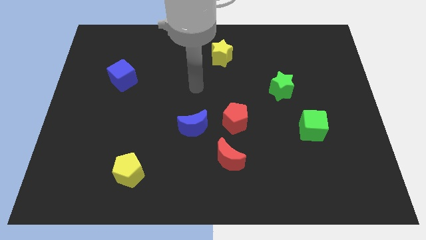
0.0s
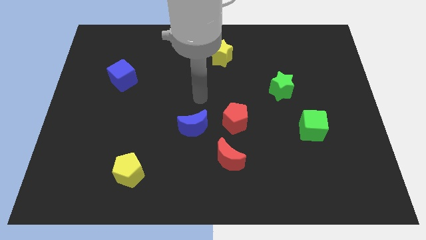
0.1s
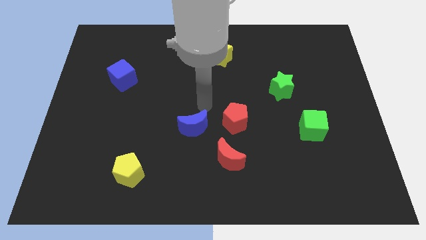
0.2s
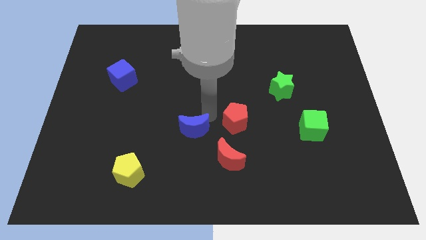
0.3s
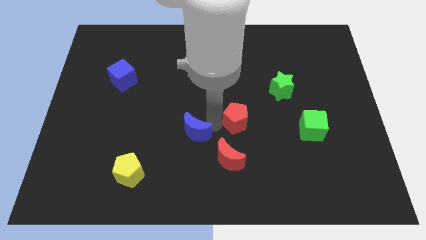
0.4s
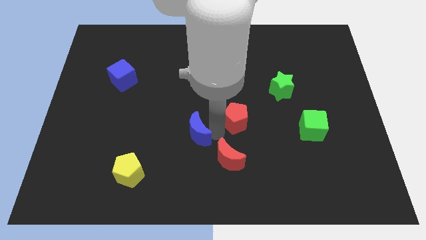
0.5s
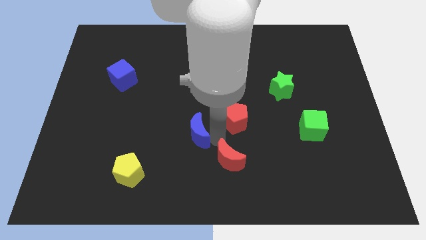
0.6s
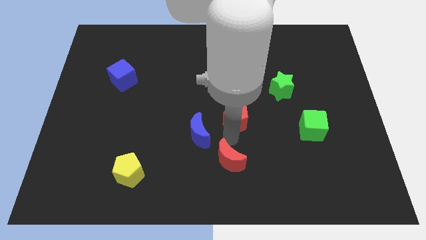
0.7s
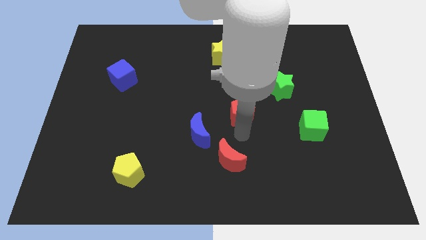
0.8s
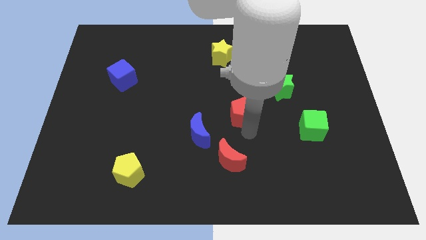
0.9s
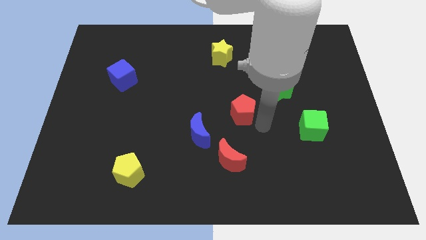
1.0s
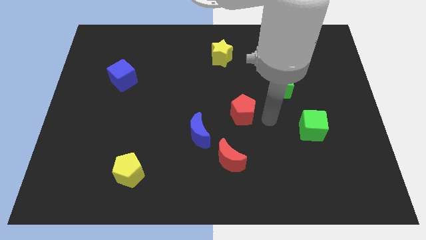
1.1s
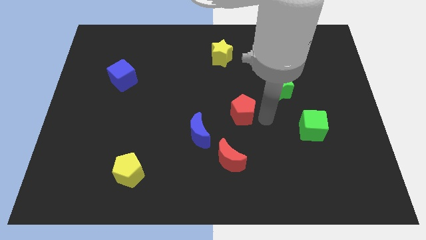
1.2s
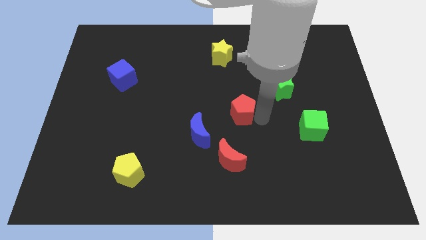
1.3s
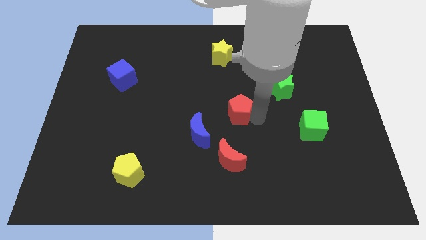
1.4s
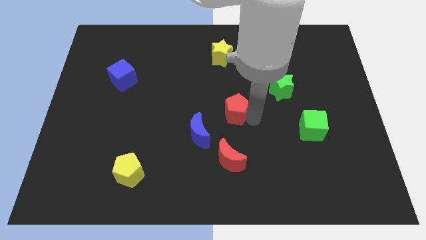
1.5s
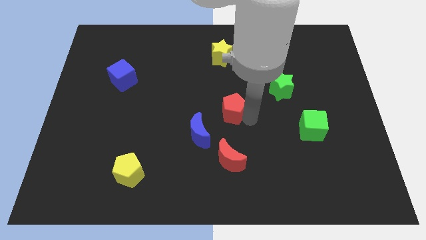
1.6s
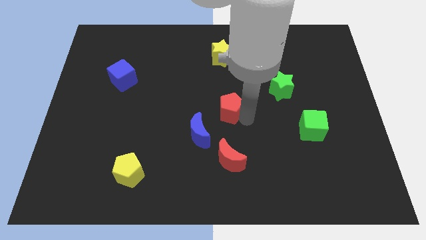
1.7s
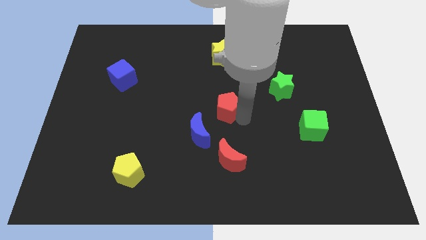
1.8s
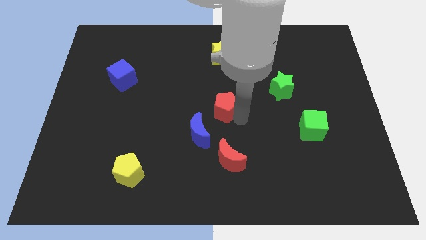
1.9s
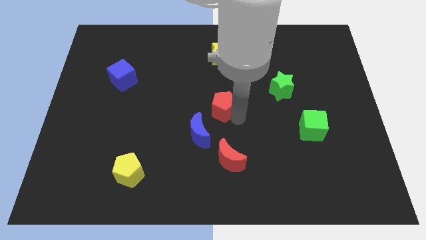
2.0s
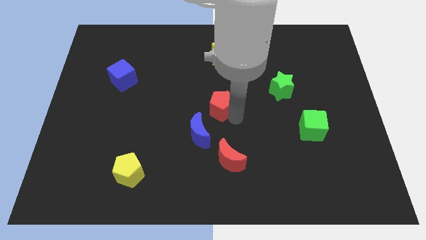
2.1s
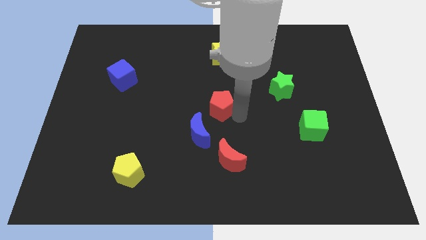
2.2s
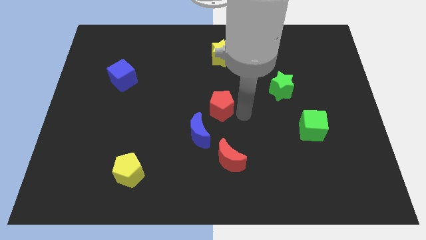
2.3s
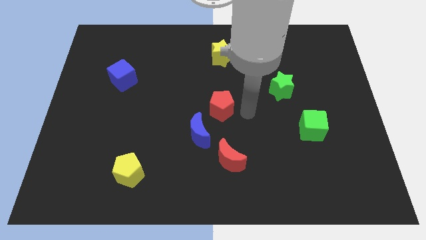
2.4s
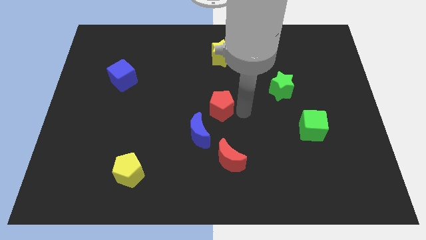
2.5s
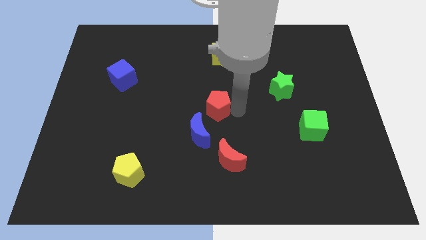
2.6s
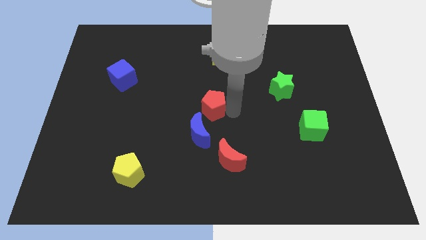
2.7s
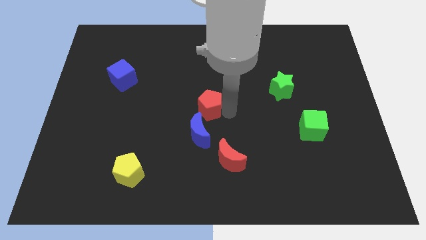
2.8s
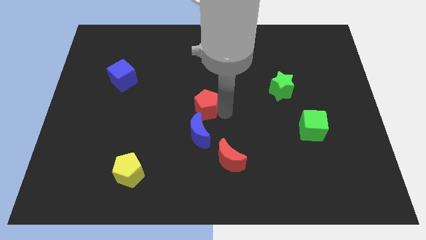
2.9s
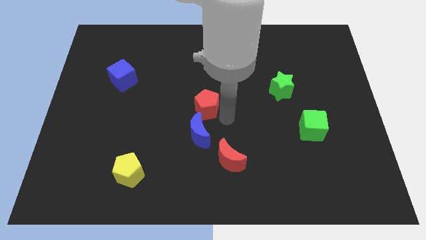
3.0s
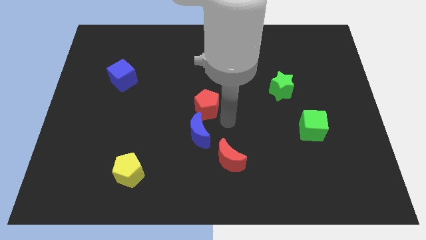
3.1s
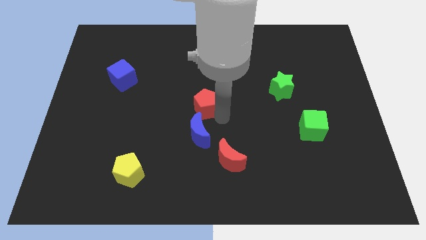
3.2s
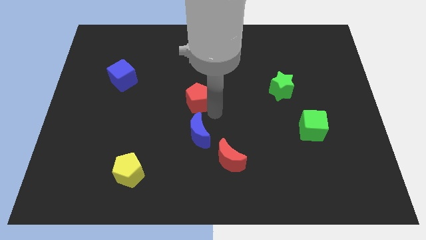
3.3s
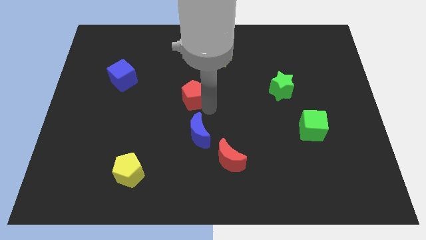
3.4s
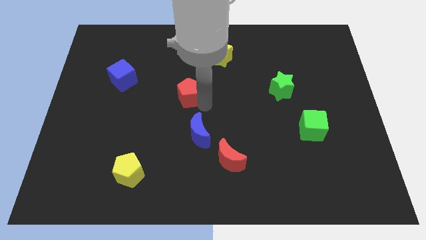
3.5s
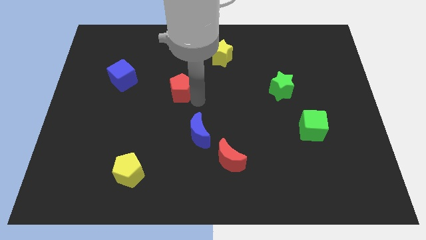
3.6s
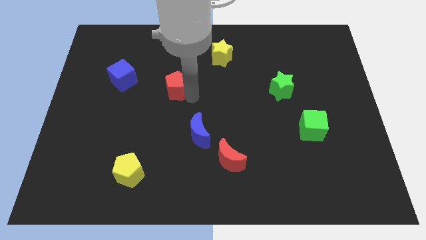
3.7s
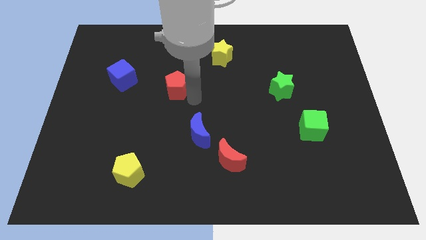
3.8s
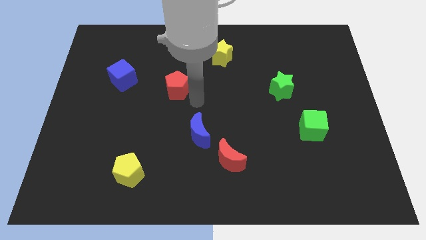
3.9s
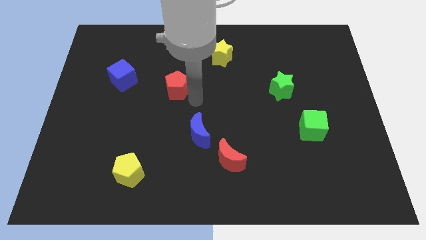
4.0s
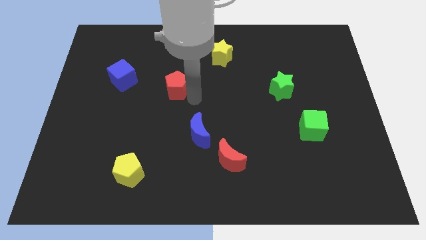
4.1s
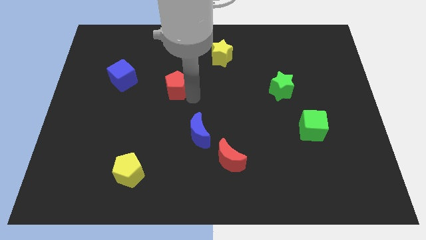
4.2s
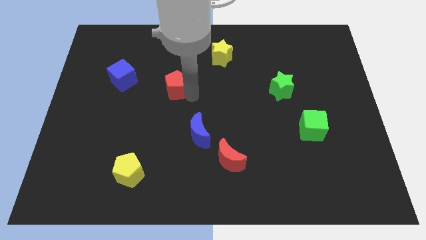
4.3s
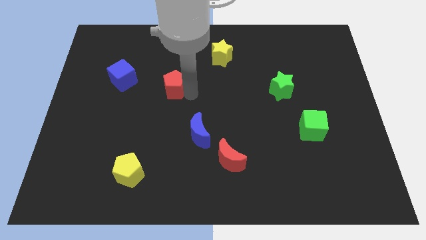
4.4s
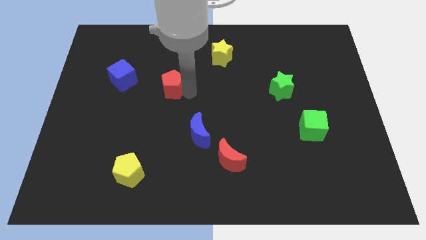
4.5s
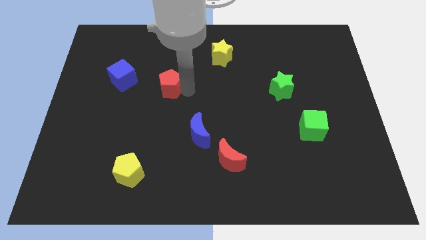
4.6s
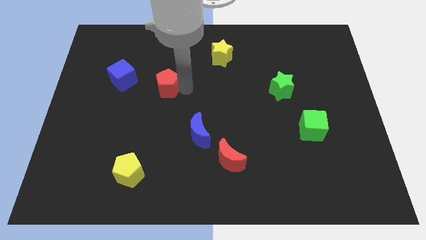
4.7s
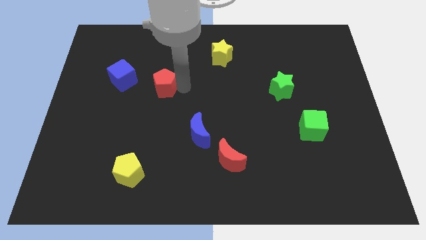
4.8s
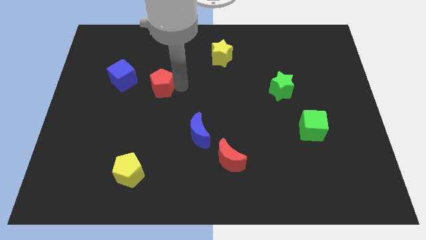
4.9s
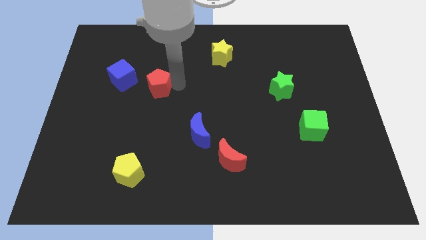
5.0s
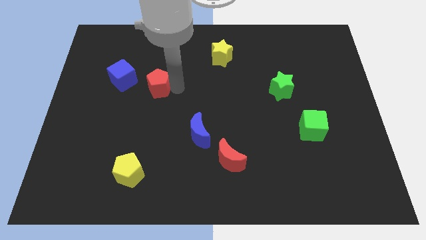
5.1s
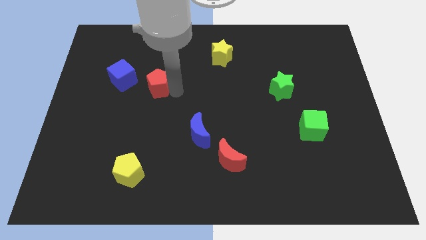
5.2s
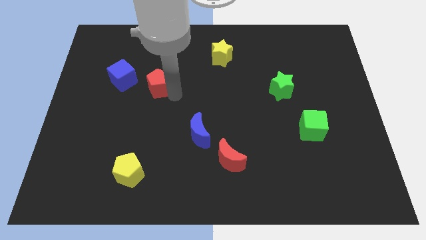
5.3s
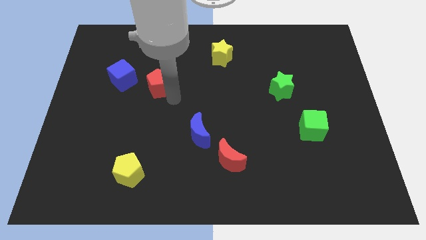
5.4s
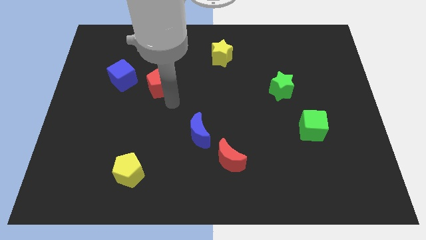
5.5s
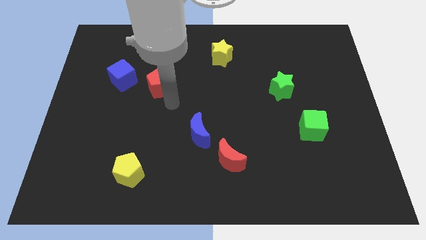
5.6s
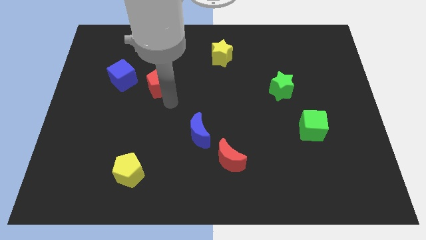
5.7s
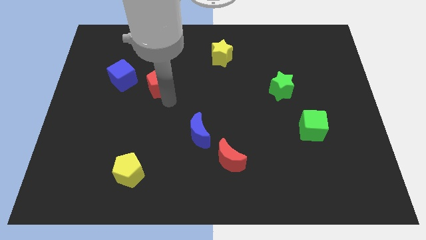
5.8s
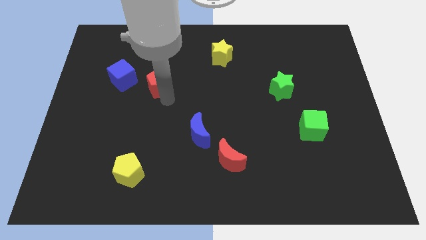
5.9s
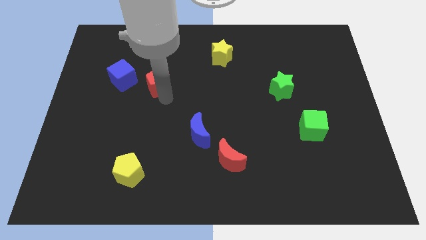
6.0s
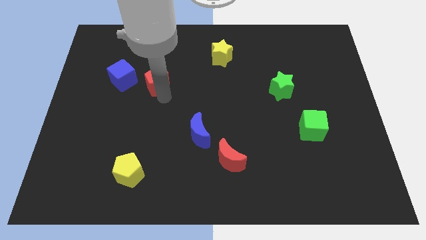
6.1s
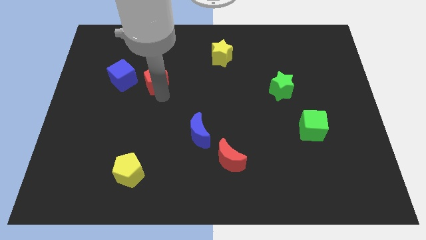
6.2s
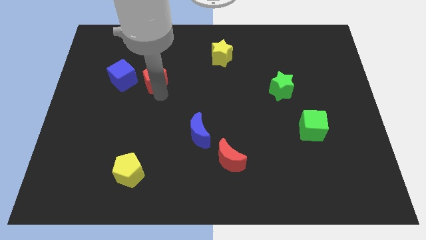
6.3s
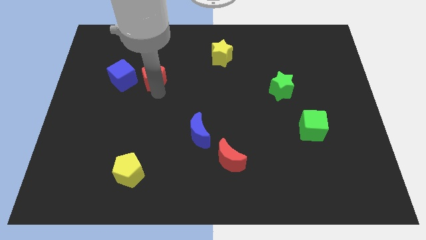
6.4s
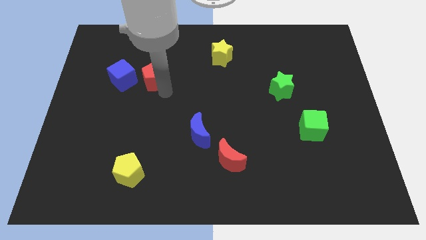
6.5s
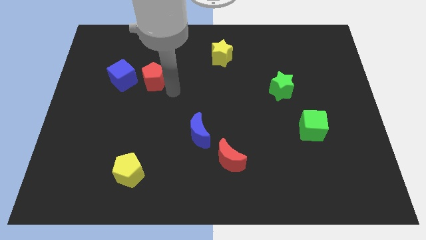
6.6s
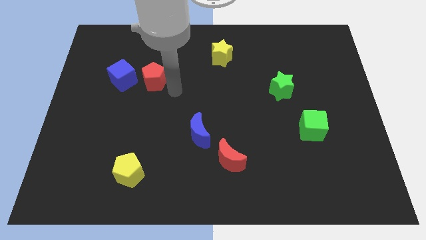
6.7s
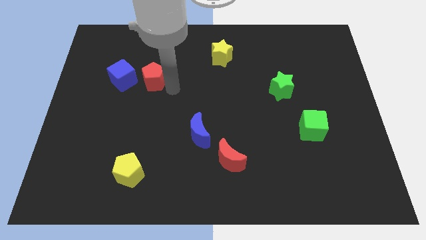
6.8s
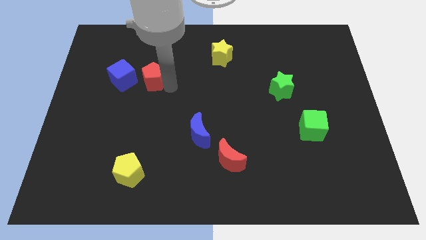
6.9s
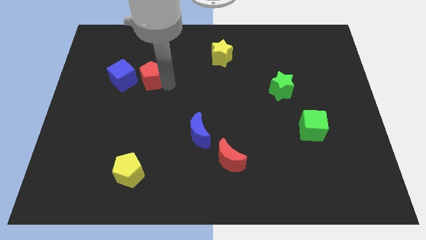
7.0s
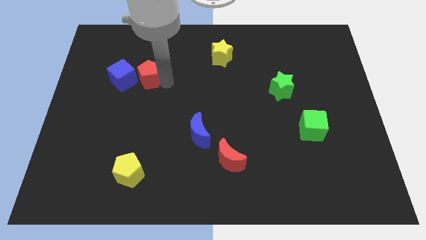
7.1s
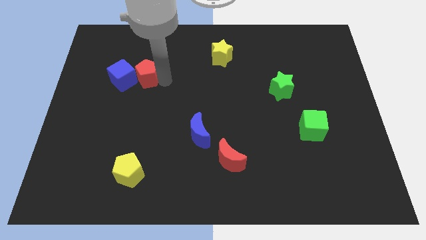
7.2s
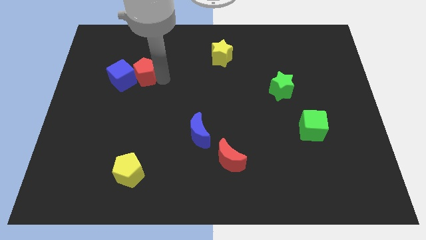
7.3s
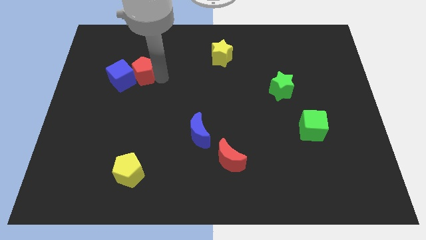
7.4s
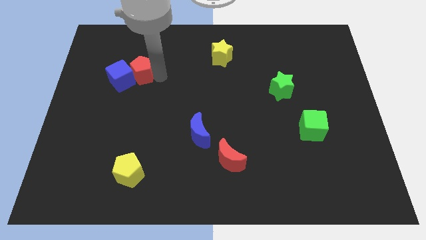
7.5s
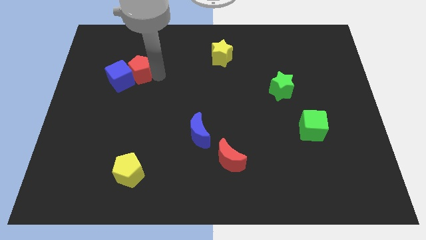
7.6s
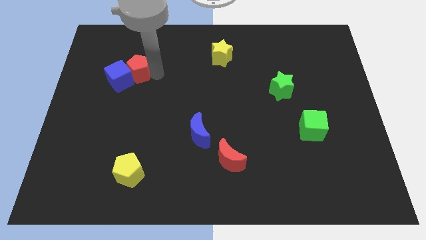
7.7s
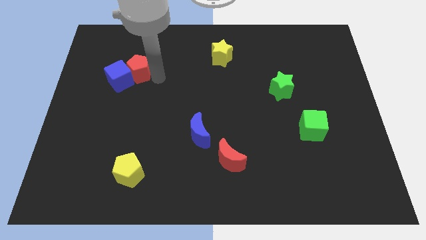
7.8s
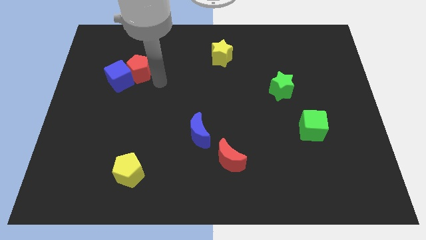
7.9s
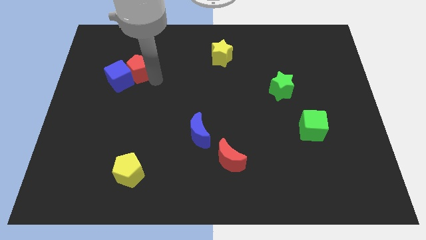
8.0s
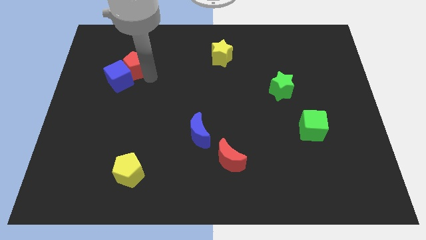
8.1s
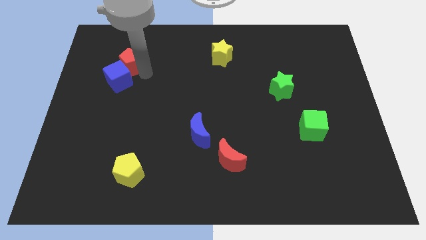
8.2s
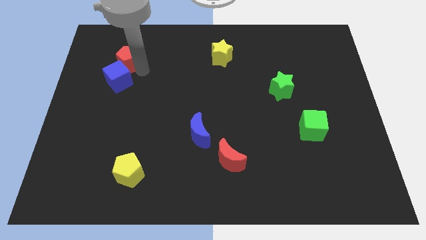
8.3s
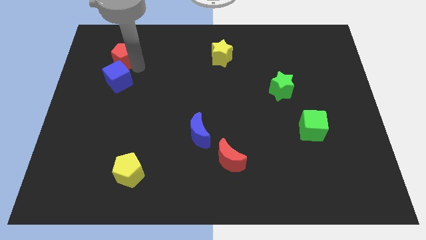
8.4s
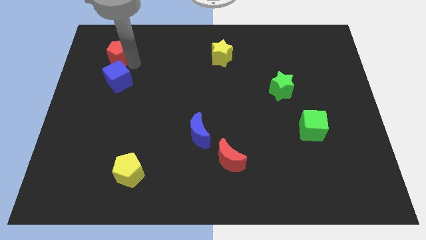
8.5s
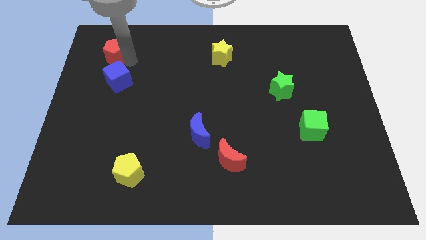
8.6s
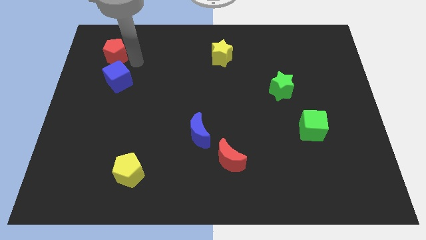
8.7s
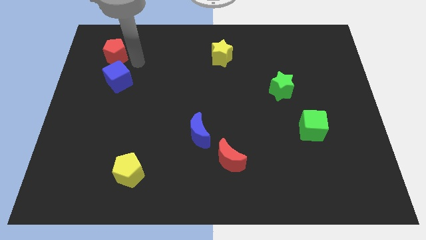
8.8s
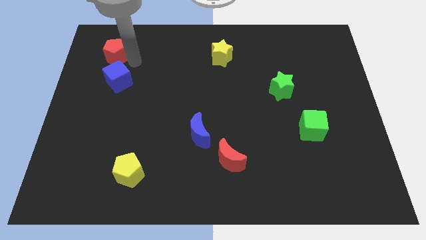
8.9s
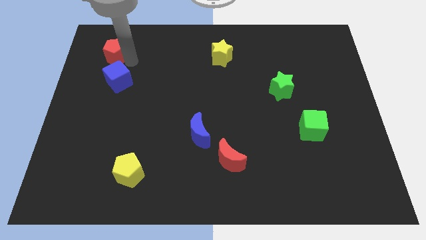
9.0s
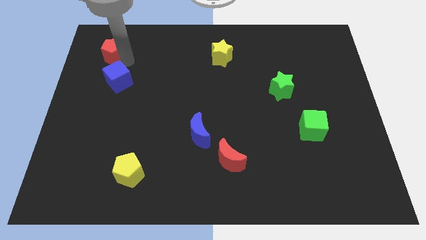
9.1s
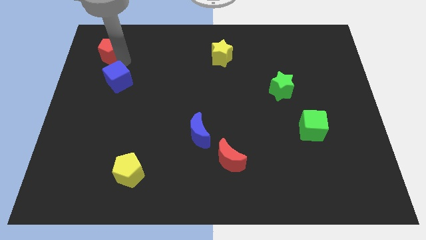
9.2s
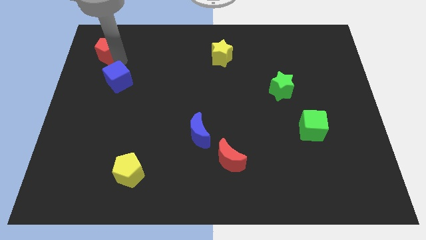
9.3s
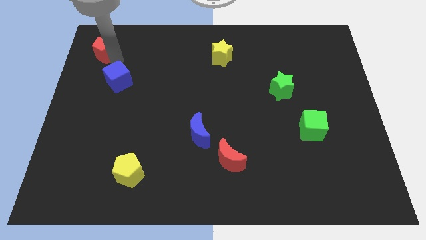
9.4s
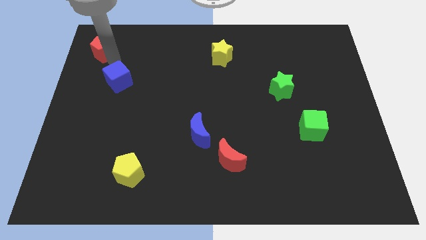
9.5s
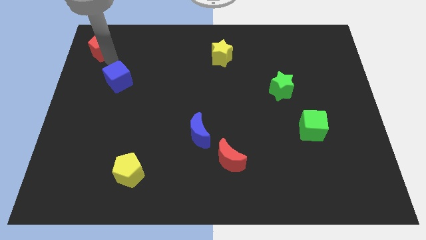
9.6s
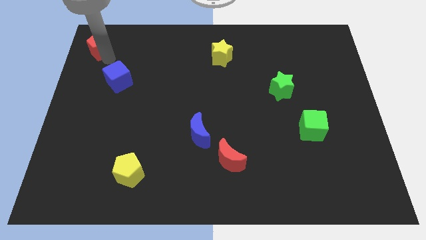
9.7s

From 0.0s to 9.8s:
put the red pentagon to the top left
